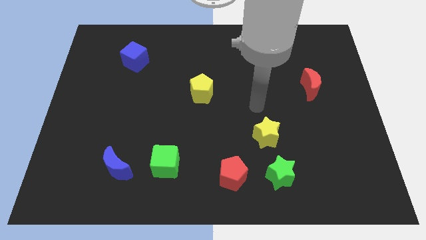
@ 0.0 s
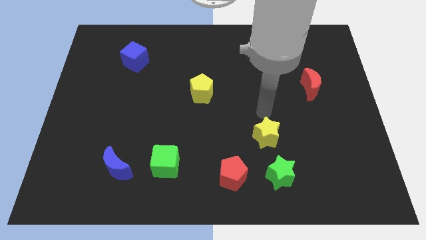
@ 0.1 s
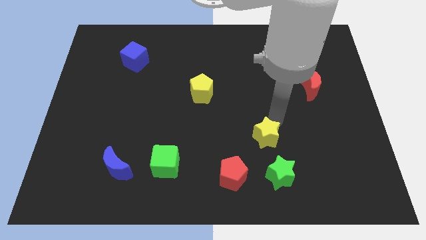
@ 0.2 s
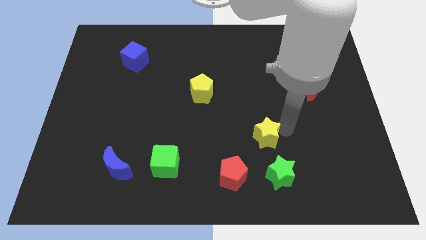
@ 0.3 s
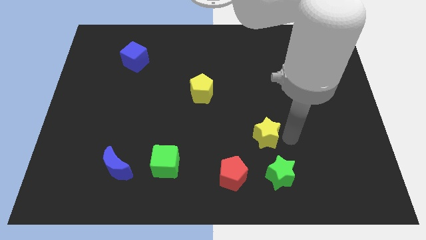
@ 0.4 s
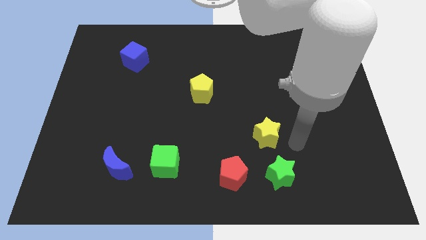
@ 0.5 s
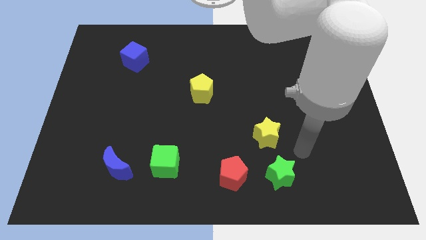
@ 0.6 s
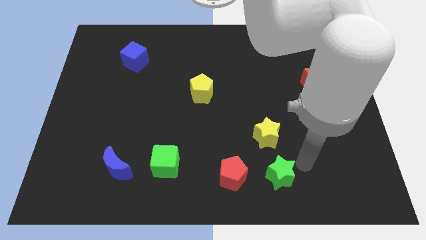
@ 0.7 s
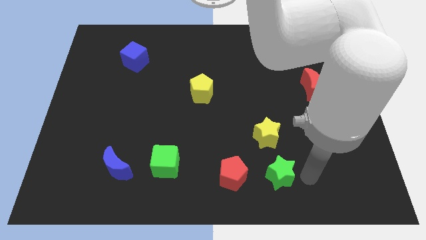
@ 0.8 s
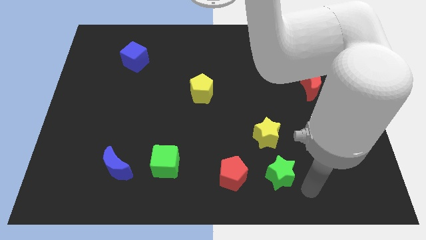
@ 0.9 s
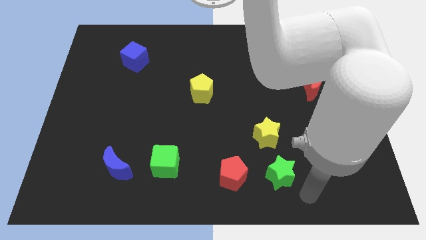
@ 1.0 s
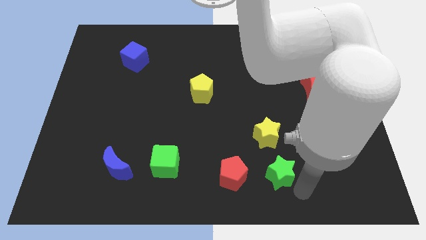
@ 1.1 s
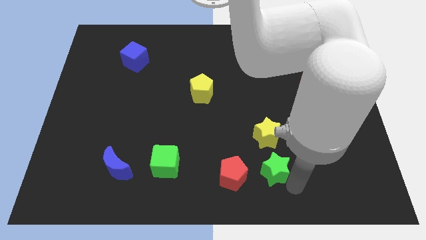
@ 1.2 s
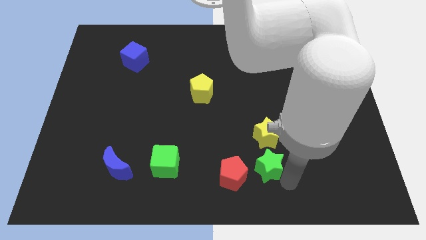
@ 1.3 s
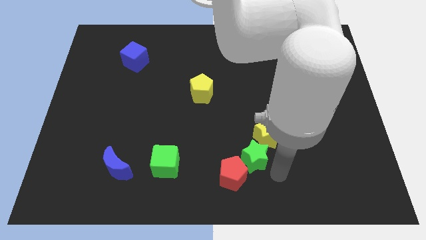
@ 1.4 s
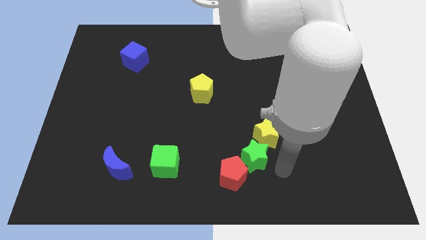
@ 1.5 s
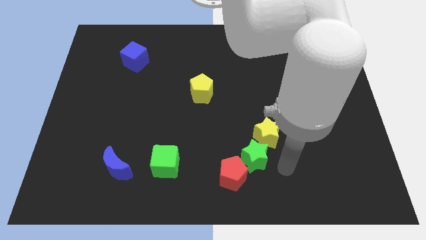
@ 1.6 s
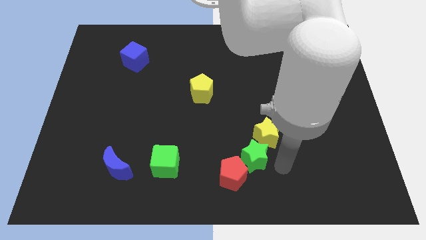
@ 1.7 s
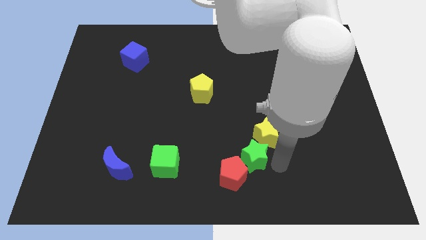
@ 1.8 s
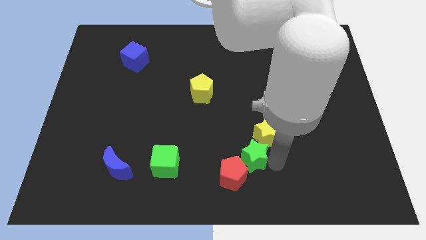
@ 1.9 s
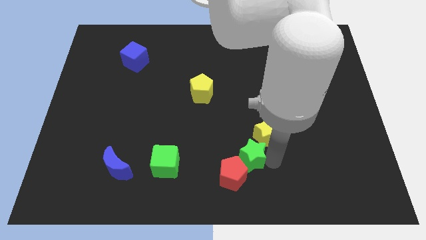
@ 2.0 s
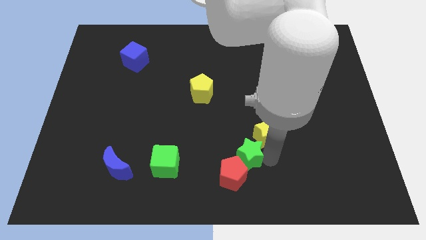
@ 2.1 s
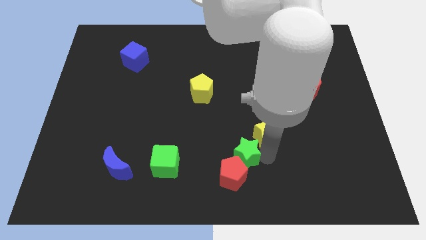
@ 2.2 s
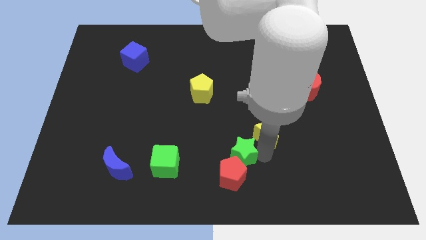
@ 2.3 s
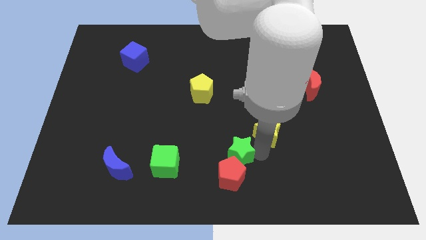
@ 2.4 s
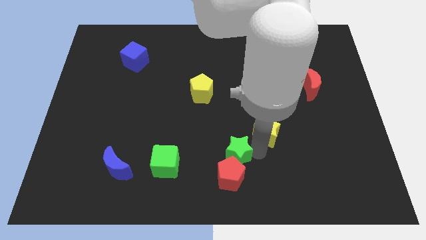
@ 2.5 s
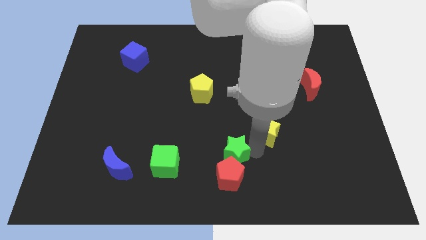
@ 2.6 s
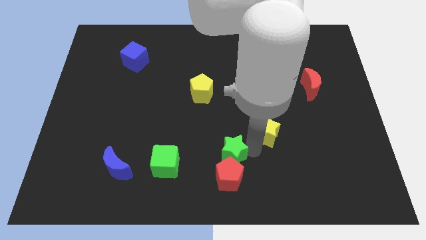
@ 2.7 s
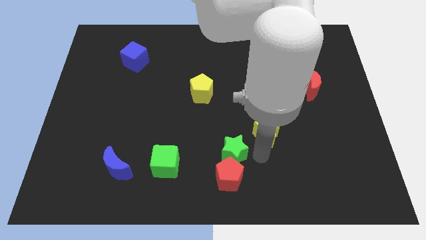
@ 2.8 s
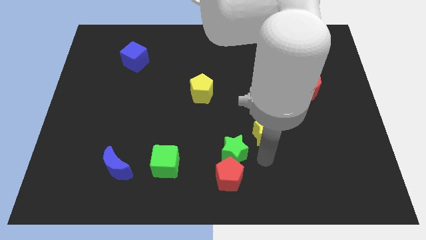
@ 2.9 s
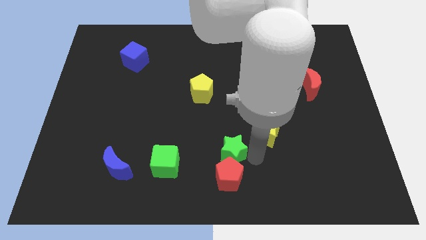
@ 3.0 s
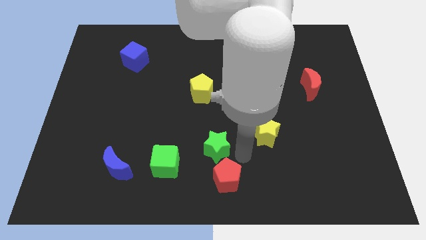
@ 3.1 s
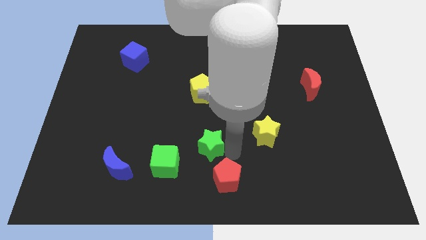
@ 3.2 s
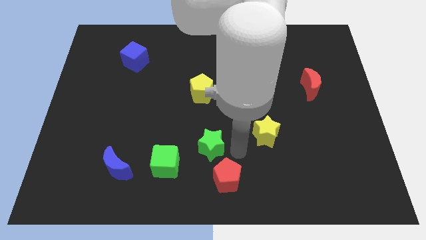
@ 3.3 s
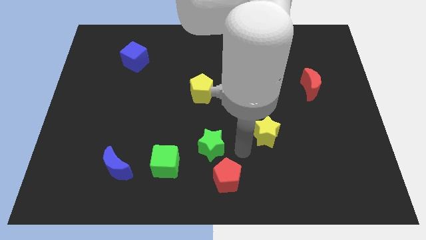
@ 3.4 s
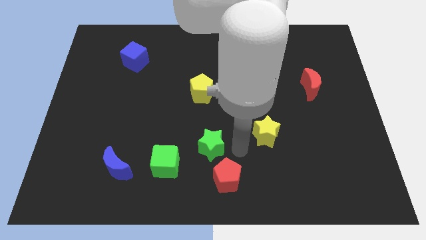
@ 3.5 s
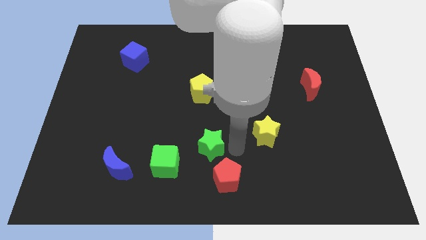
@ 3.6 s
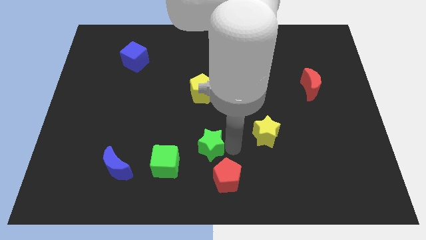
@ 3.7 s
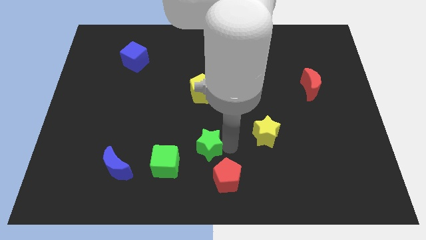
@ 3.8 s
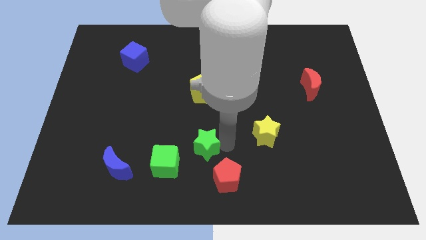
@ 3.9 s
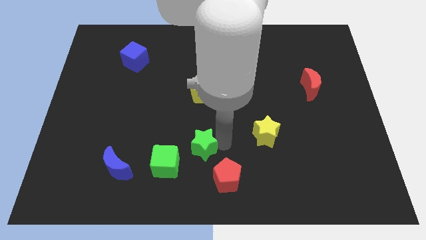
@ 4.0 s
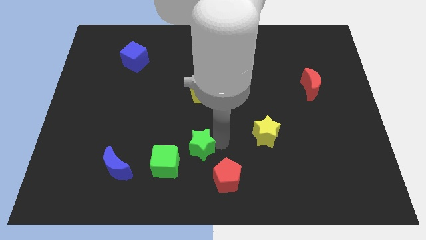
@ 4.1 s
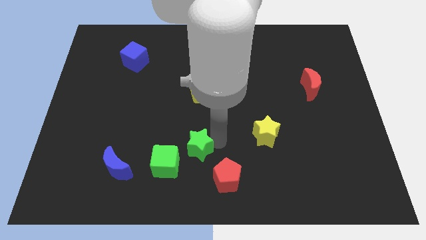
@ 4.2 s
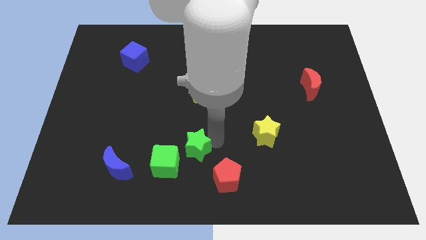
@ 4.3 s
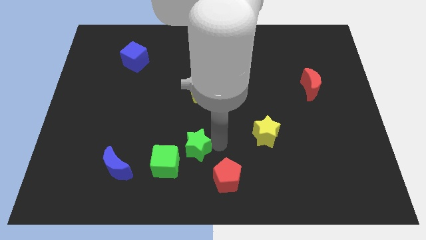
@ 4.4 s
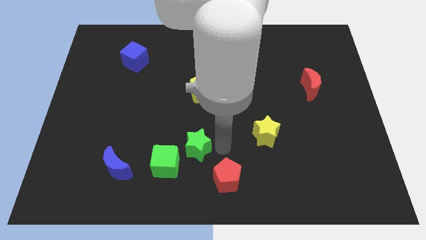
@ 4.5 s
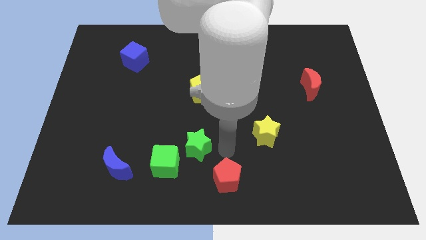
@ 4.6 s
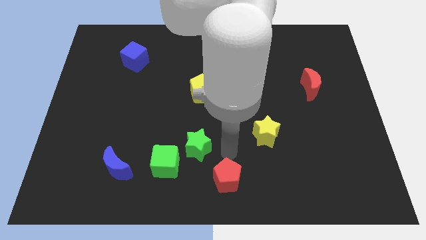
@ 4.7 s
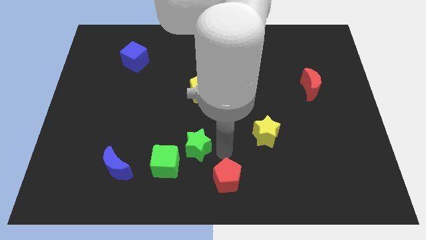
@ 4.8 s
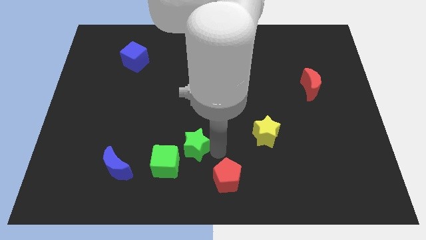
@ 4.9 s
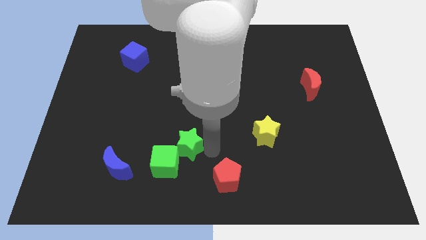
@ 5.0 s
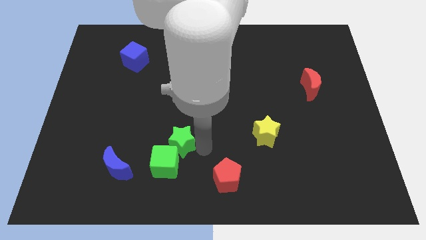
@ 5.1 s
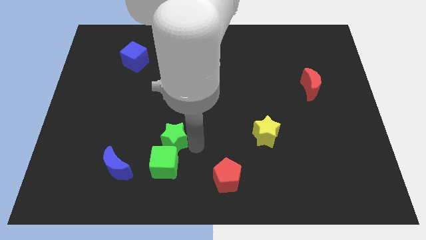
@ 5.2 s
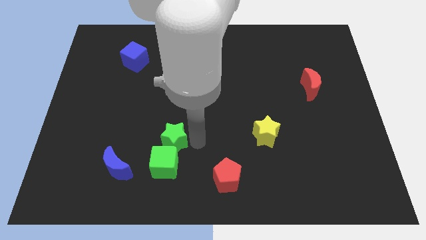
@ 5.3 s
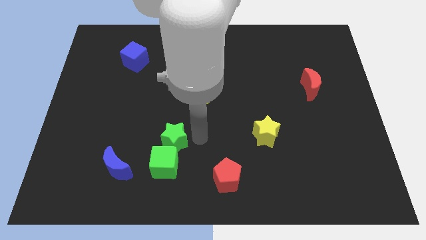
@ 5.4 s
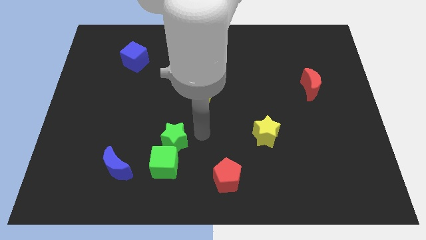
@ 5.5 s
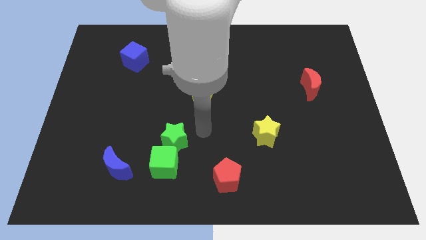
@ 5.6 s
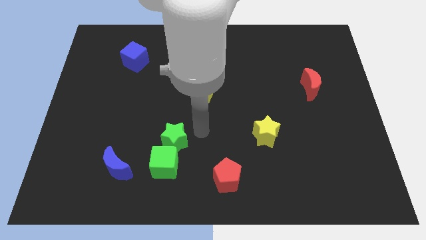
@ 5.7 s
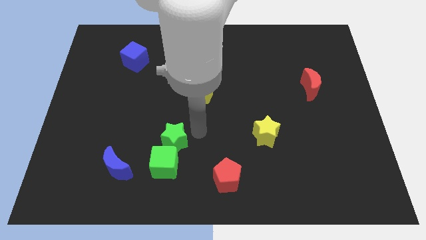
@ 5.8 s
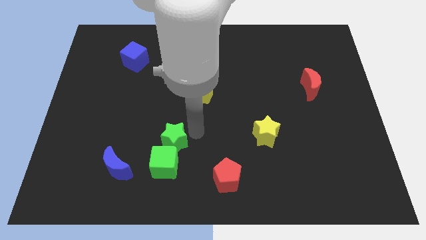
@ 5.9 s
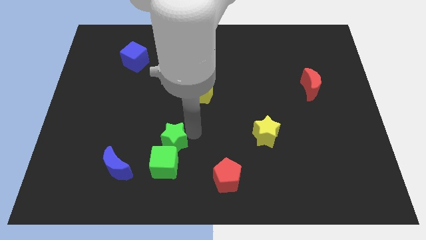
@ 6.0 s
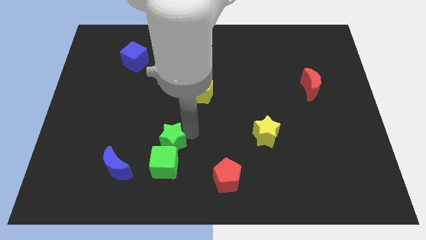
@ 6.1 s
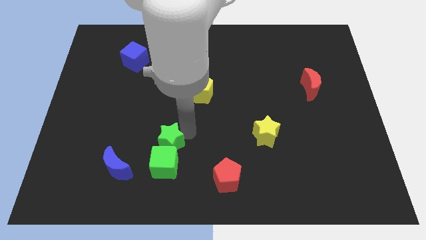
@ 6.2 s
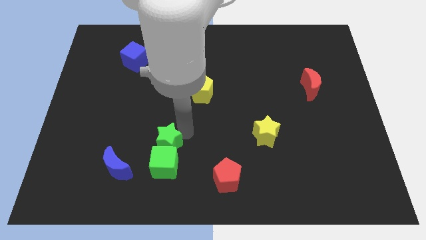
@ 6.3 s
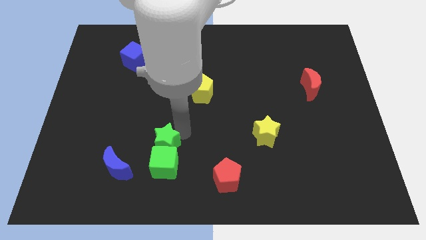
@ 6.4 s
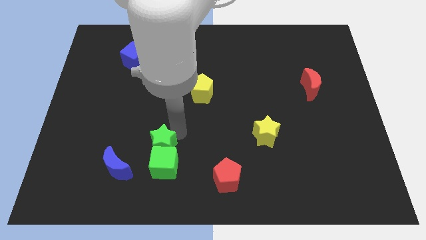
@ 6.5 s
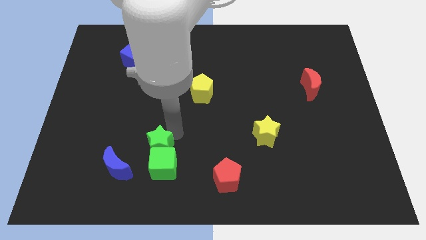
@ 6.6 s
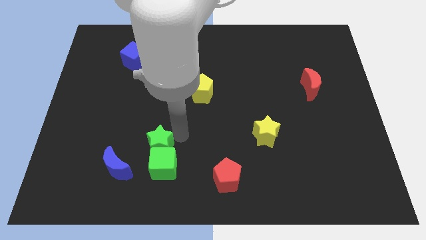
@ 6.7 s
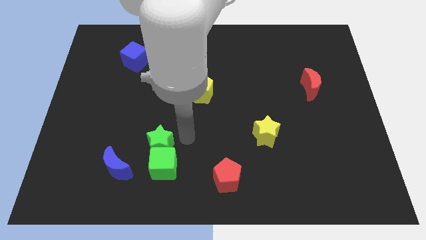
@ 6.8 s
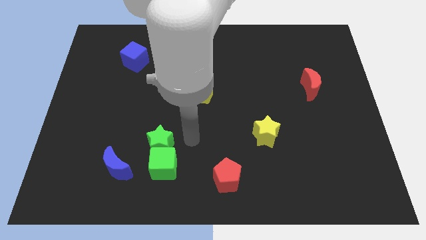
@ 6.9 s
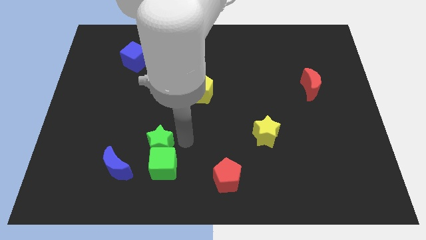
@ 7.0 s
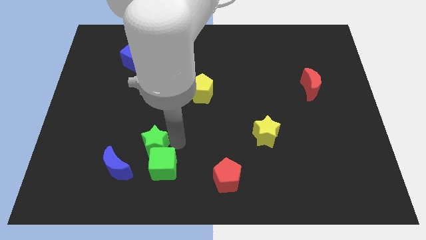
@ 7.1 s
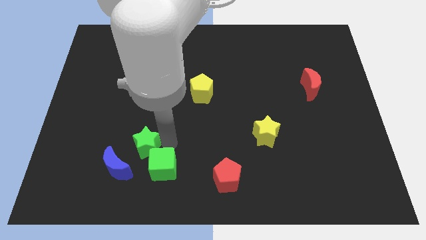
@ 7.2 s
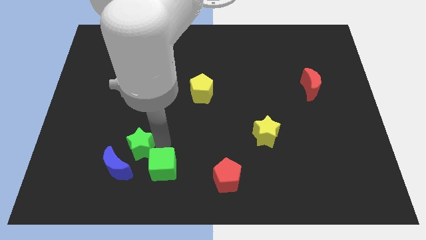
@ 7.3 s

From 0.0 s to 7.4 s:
slide the green star left of the green cube
